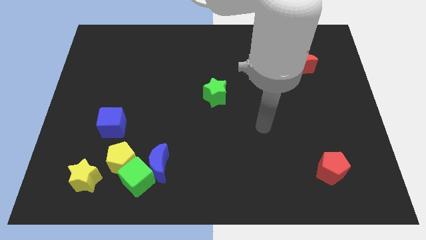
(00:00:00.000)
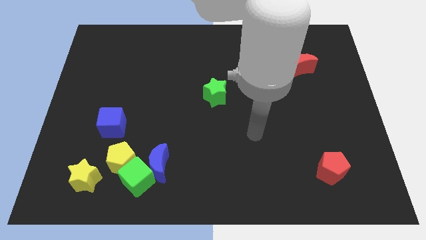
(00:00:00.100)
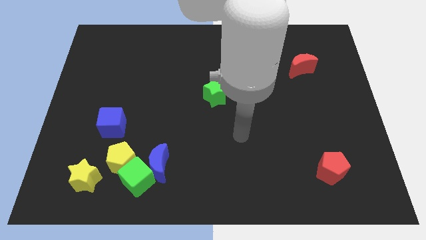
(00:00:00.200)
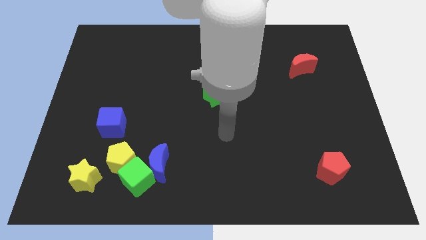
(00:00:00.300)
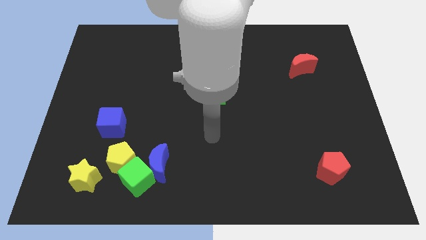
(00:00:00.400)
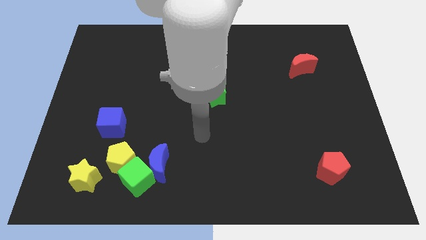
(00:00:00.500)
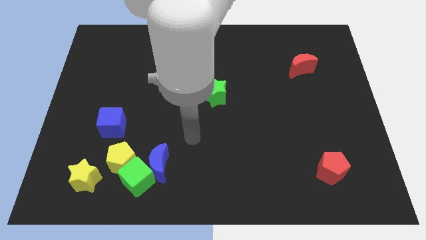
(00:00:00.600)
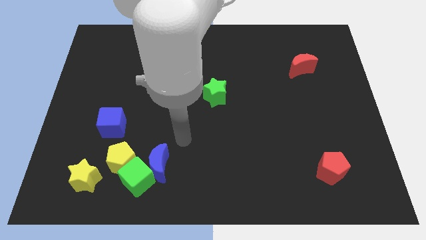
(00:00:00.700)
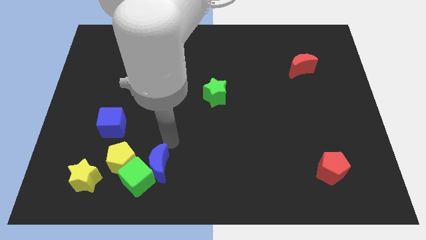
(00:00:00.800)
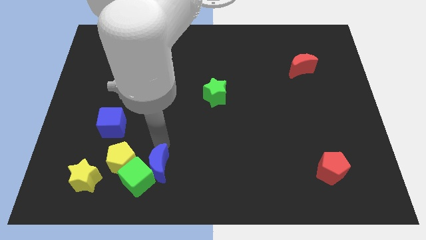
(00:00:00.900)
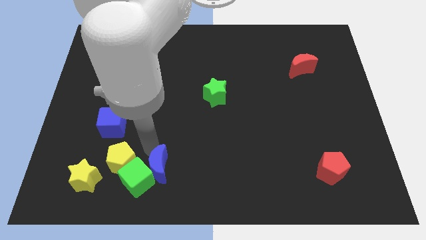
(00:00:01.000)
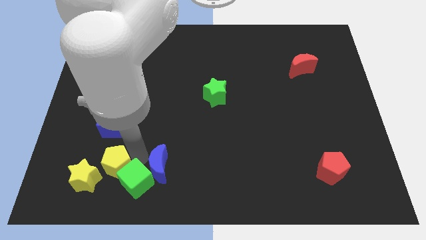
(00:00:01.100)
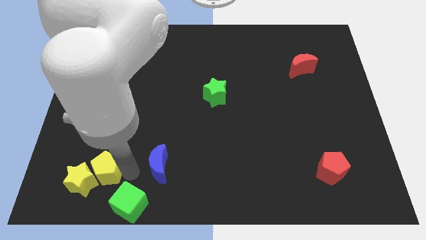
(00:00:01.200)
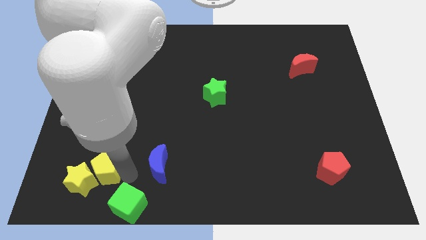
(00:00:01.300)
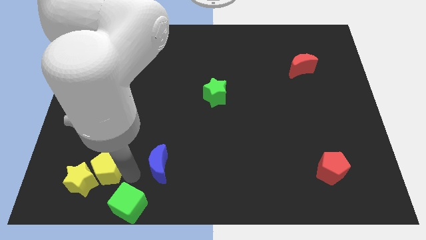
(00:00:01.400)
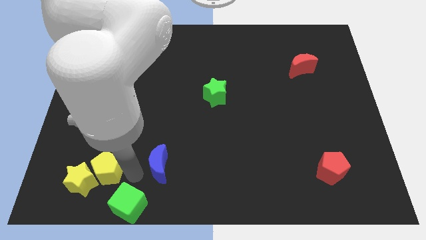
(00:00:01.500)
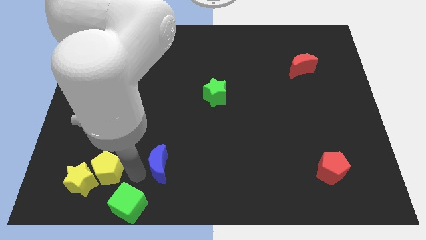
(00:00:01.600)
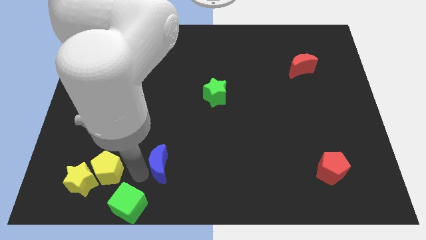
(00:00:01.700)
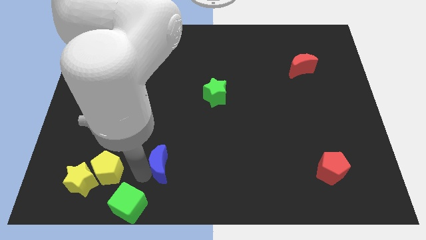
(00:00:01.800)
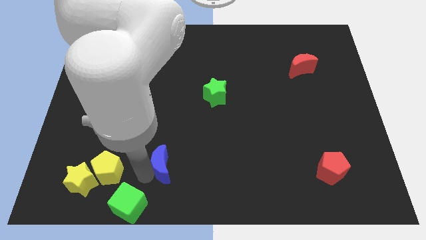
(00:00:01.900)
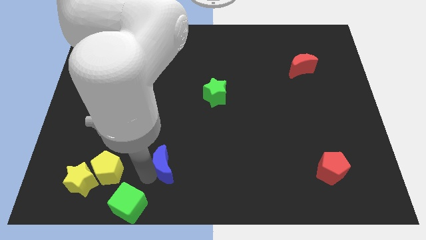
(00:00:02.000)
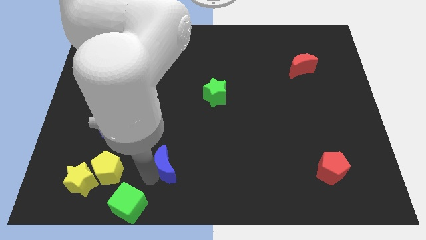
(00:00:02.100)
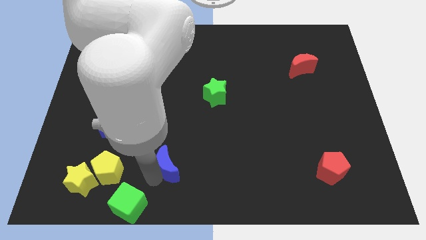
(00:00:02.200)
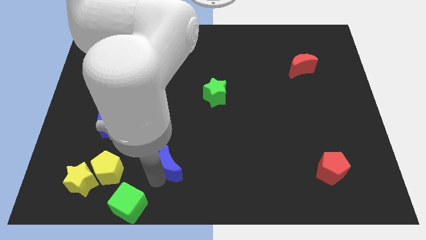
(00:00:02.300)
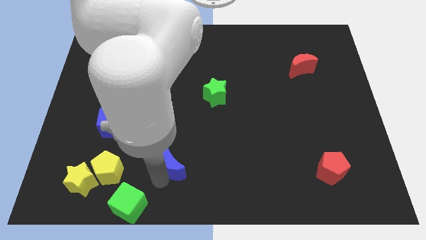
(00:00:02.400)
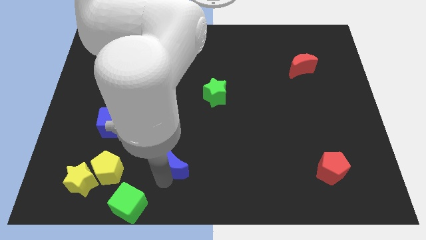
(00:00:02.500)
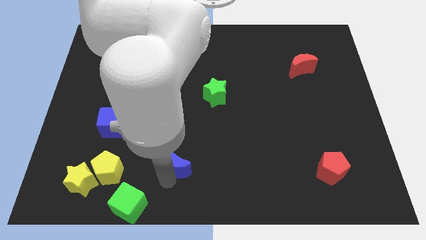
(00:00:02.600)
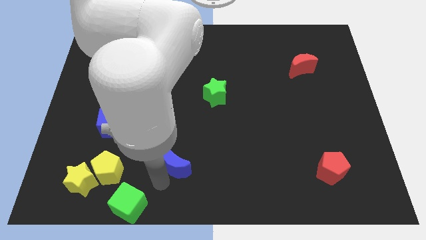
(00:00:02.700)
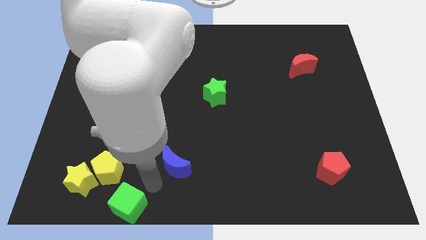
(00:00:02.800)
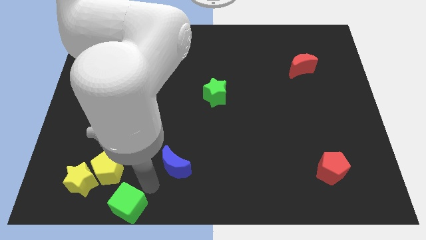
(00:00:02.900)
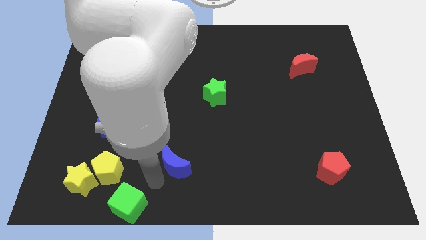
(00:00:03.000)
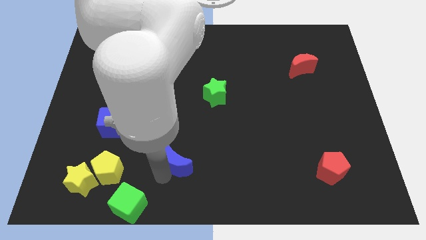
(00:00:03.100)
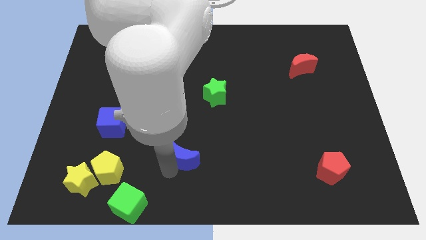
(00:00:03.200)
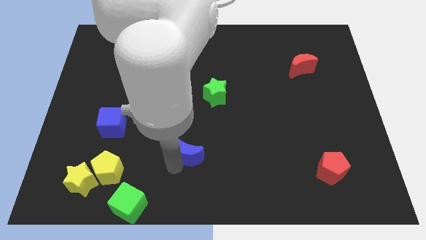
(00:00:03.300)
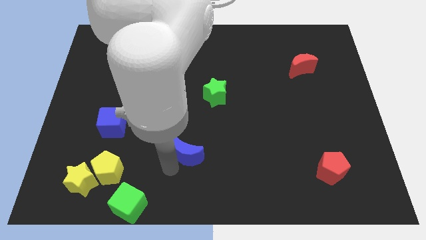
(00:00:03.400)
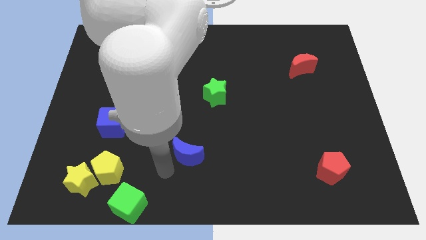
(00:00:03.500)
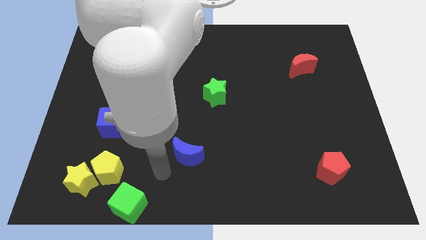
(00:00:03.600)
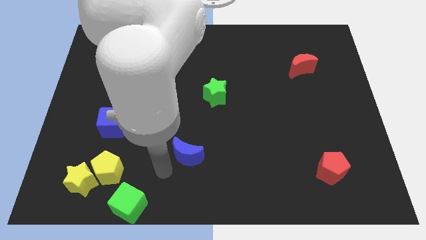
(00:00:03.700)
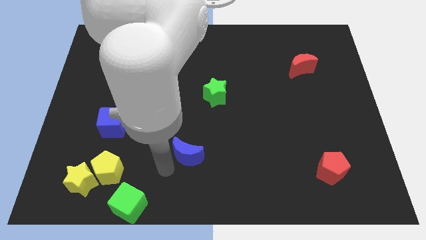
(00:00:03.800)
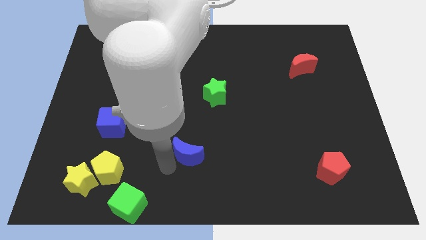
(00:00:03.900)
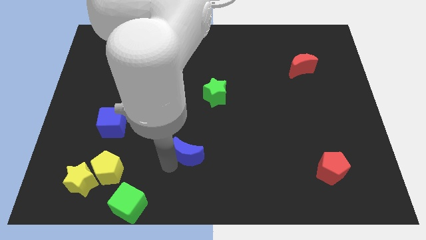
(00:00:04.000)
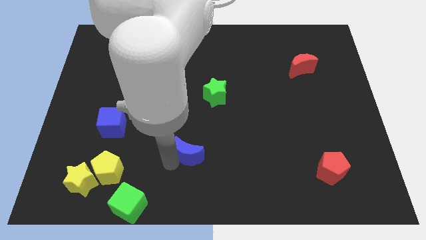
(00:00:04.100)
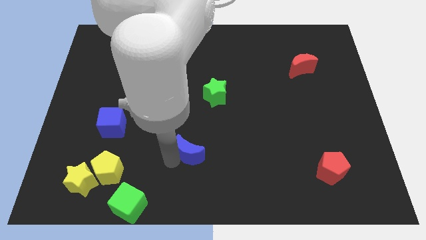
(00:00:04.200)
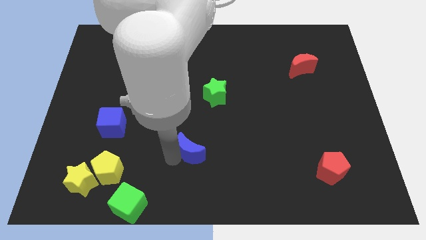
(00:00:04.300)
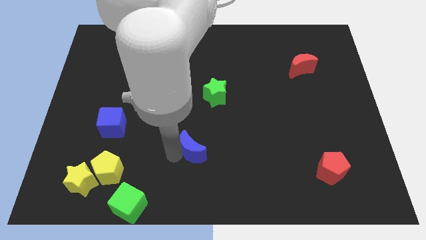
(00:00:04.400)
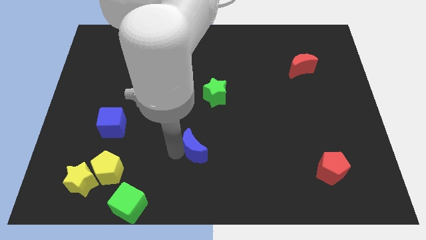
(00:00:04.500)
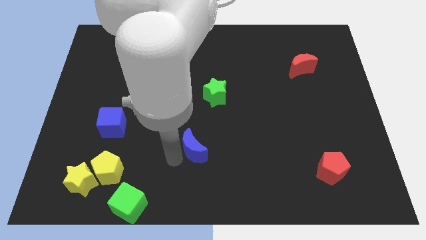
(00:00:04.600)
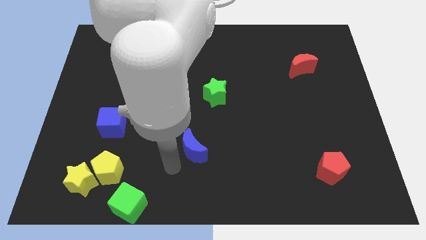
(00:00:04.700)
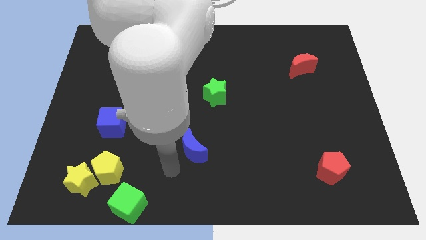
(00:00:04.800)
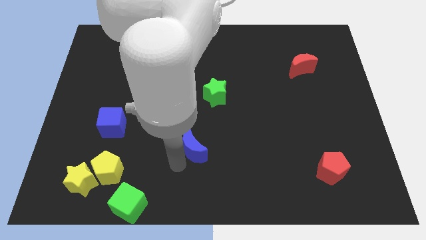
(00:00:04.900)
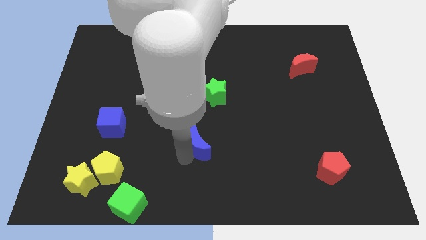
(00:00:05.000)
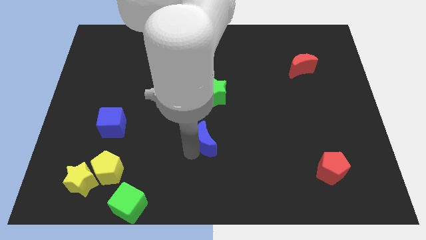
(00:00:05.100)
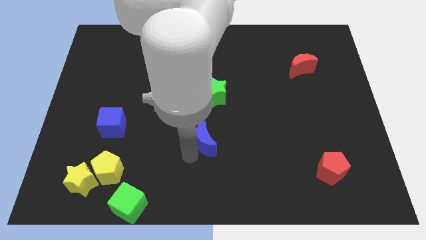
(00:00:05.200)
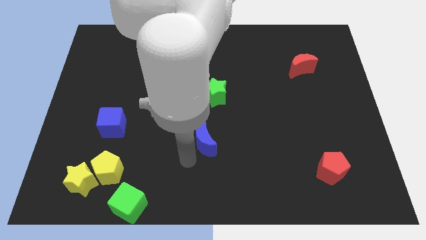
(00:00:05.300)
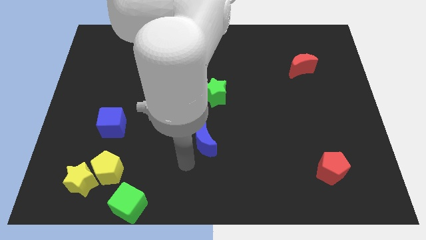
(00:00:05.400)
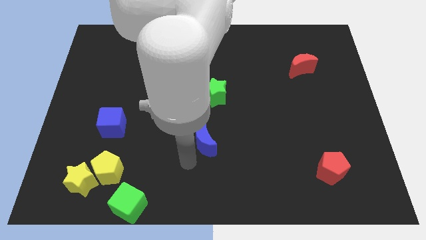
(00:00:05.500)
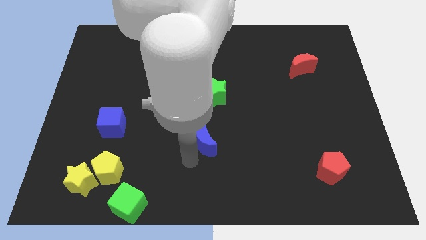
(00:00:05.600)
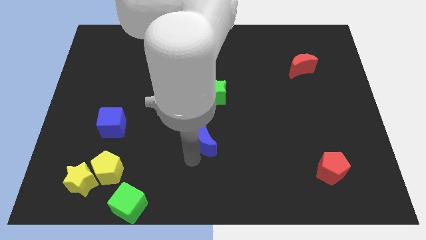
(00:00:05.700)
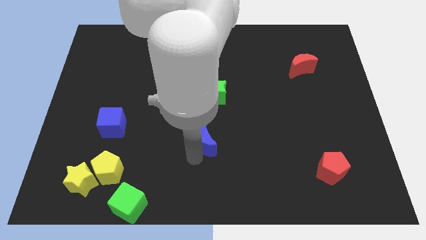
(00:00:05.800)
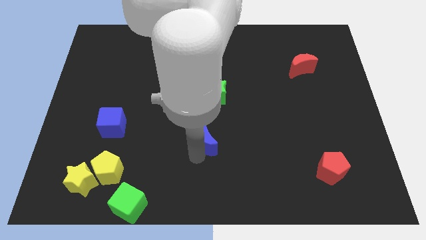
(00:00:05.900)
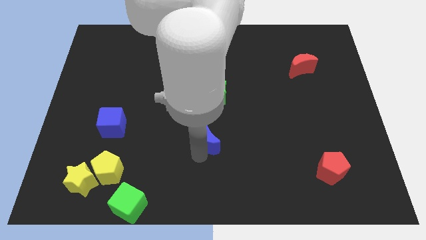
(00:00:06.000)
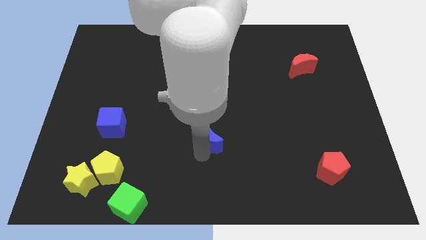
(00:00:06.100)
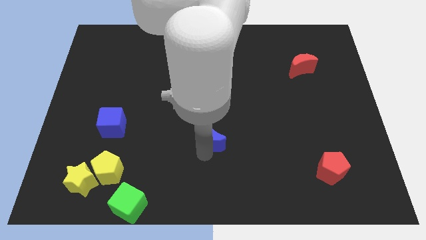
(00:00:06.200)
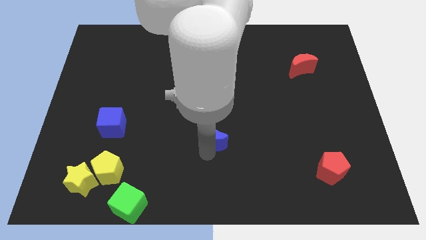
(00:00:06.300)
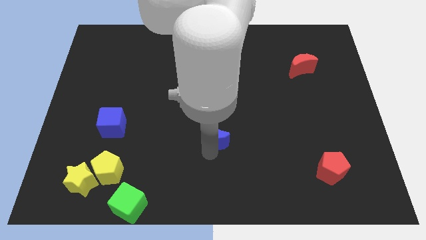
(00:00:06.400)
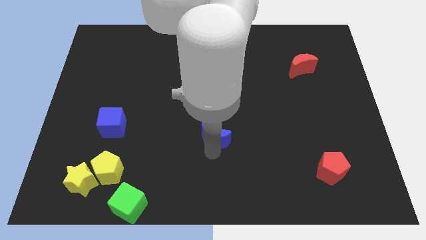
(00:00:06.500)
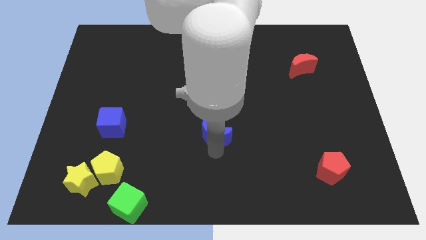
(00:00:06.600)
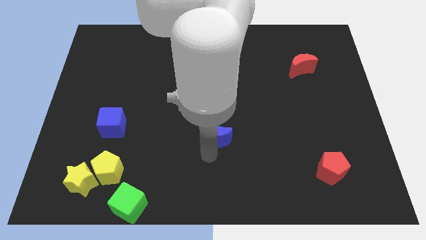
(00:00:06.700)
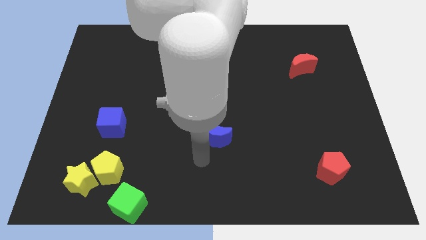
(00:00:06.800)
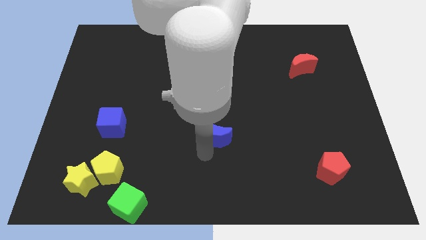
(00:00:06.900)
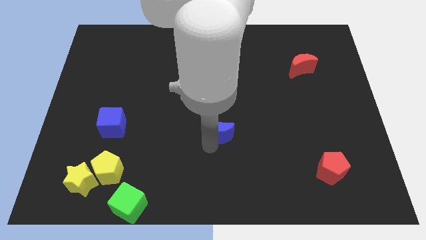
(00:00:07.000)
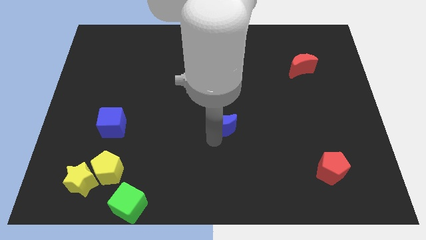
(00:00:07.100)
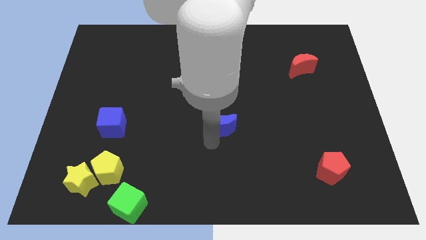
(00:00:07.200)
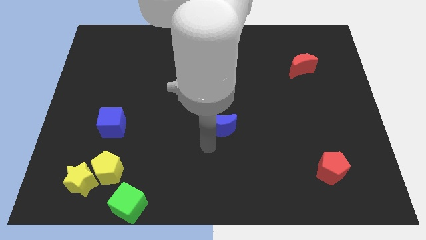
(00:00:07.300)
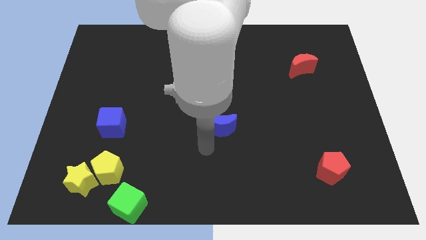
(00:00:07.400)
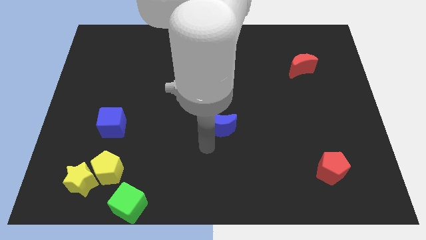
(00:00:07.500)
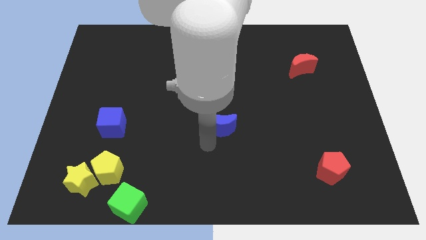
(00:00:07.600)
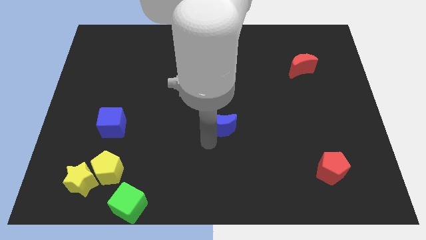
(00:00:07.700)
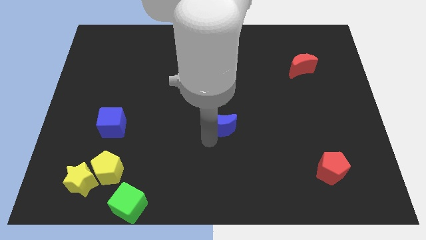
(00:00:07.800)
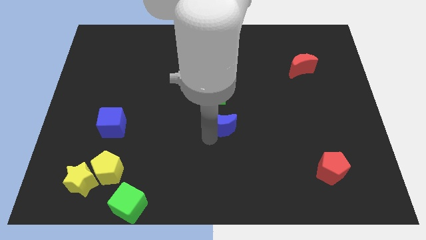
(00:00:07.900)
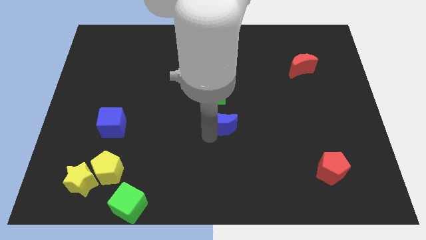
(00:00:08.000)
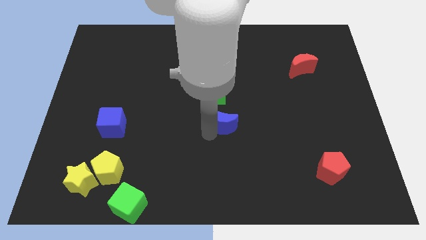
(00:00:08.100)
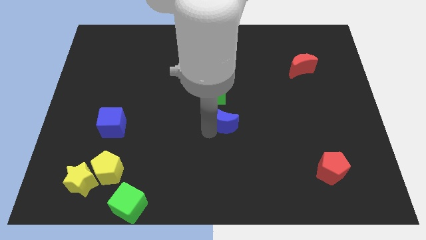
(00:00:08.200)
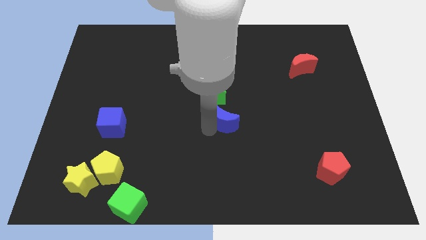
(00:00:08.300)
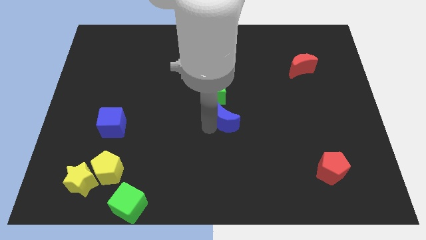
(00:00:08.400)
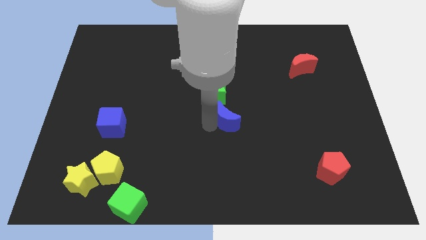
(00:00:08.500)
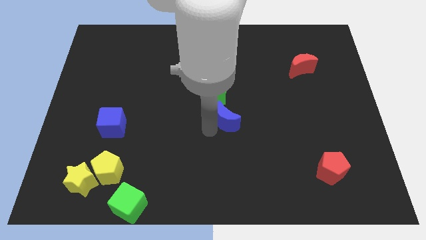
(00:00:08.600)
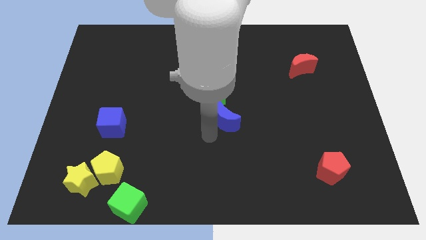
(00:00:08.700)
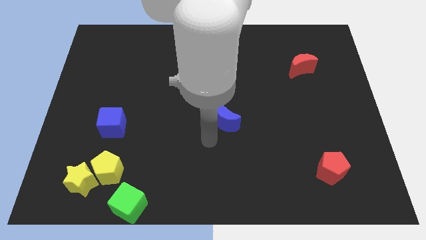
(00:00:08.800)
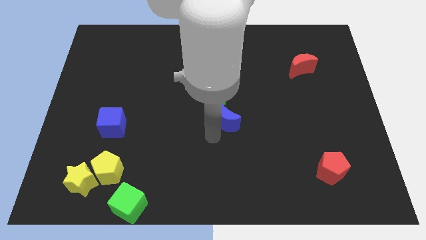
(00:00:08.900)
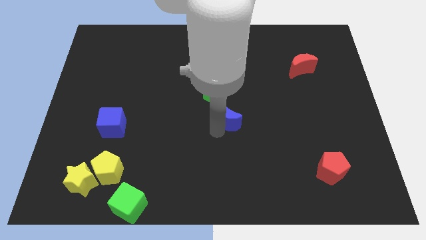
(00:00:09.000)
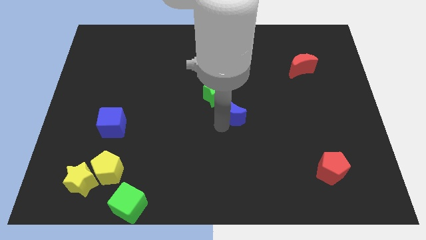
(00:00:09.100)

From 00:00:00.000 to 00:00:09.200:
move the blue moon diagonally upwards and right
